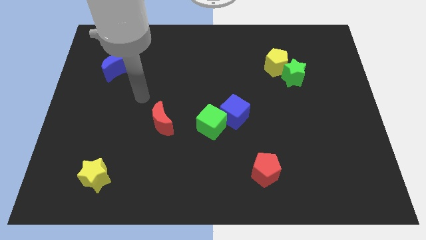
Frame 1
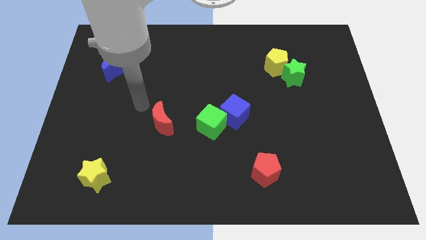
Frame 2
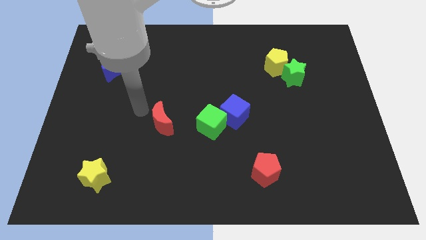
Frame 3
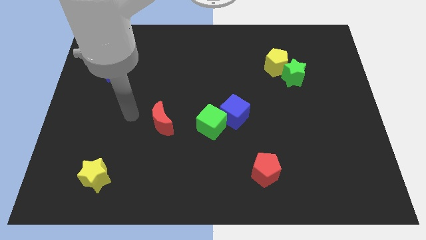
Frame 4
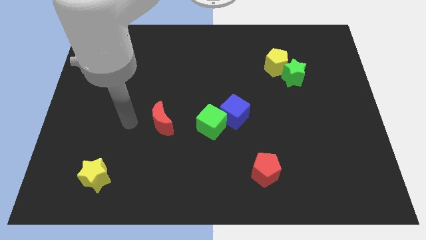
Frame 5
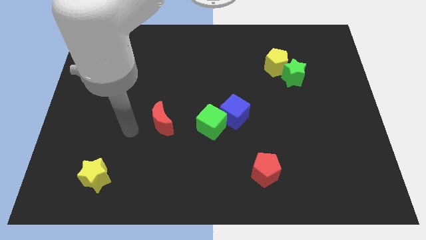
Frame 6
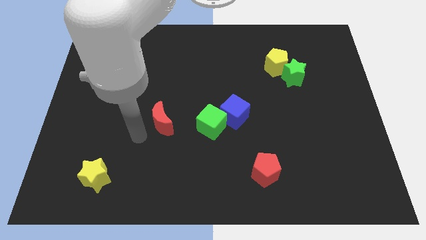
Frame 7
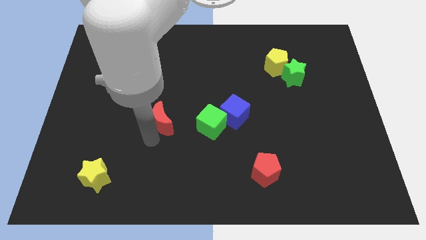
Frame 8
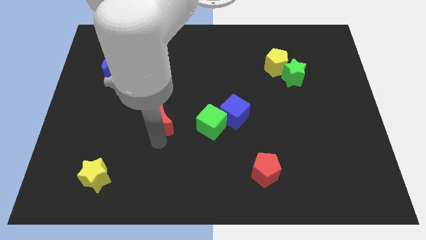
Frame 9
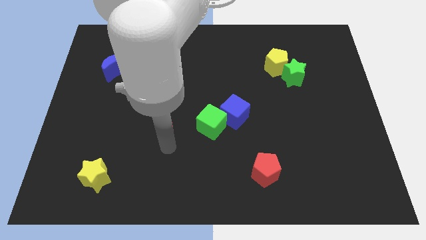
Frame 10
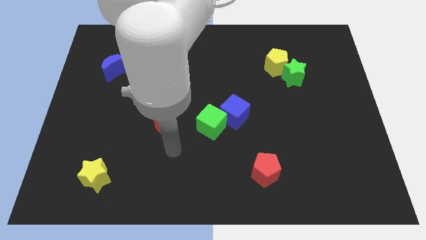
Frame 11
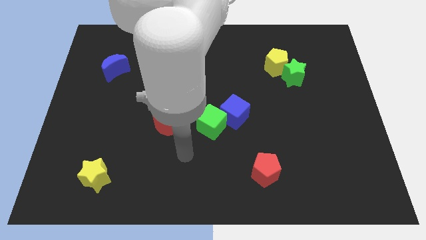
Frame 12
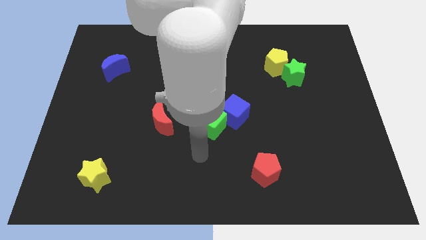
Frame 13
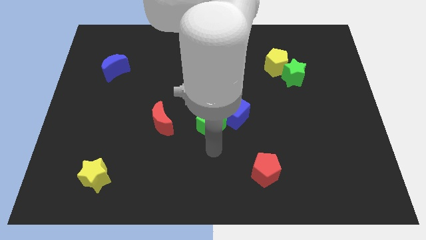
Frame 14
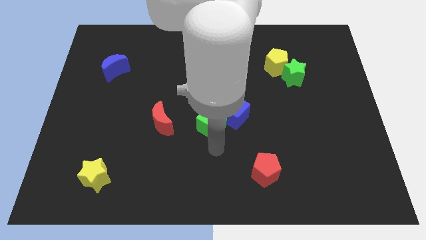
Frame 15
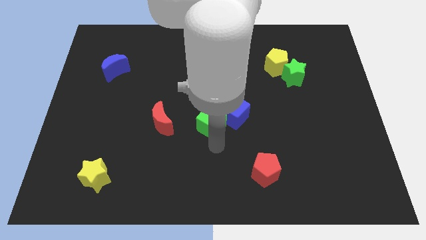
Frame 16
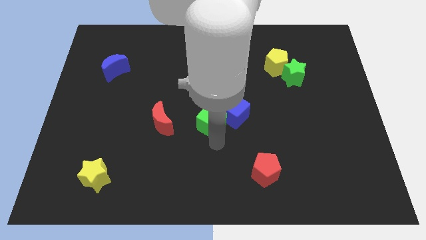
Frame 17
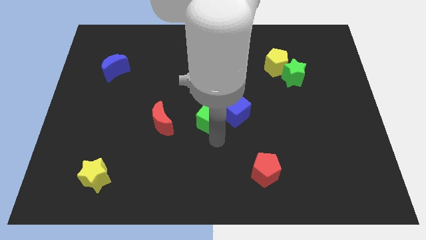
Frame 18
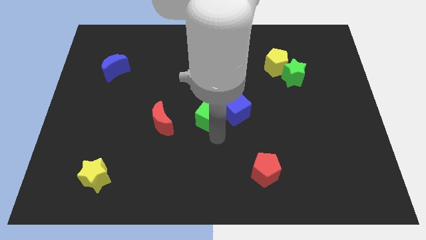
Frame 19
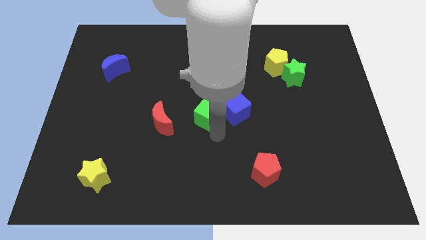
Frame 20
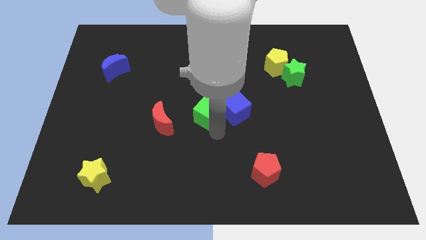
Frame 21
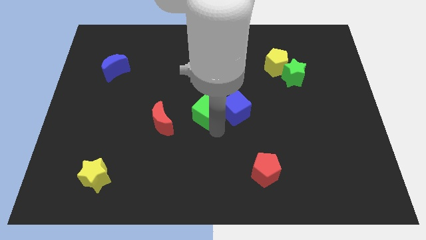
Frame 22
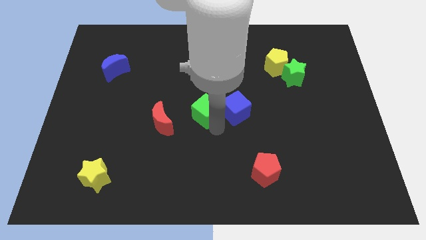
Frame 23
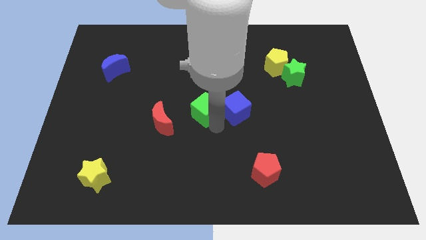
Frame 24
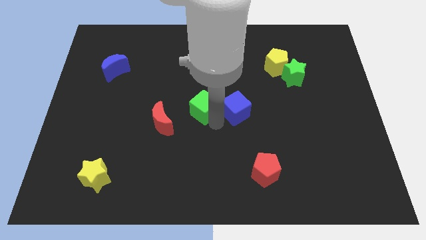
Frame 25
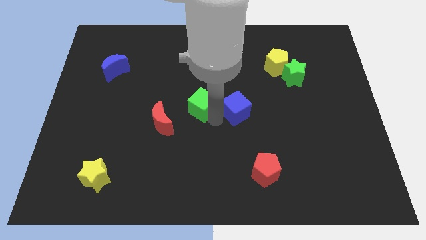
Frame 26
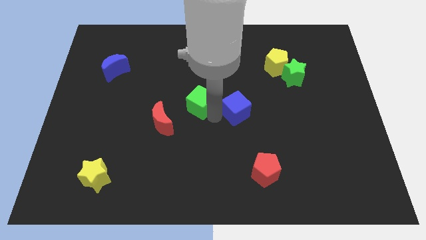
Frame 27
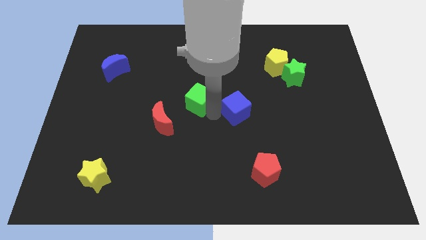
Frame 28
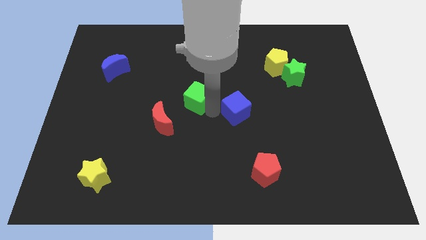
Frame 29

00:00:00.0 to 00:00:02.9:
slide the green cube upwards somewhat

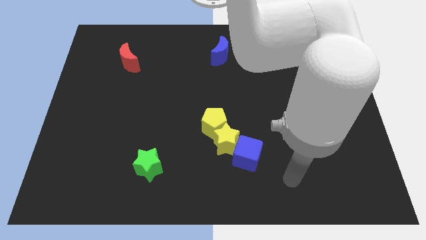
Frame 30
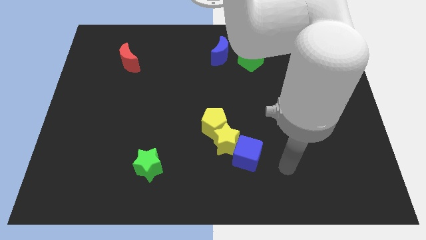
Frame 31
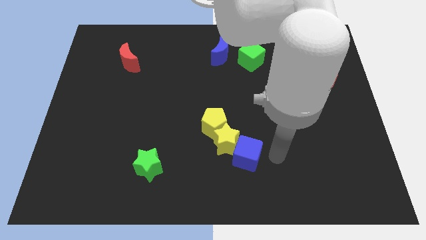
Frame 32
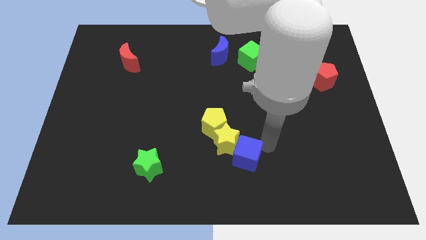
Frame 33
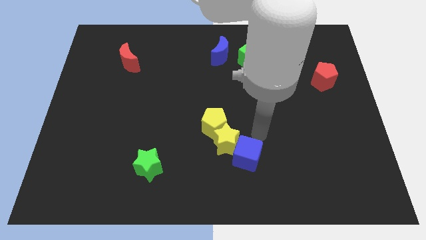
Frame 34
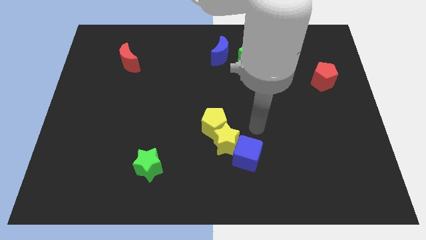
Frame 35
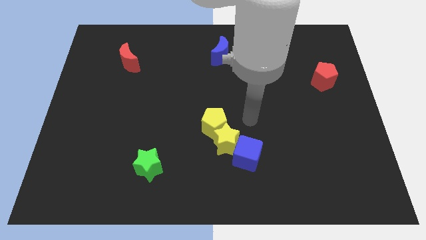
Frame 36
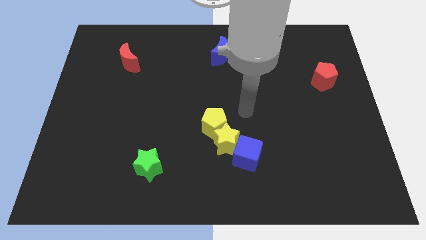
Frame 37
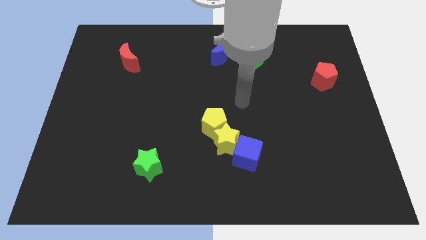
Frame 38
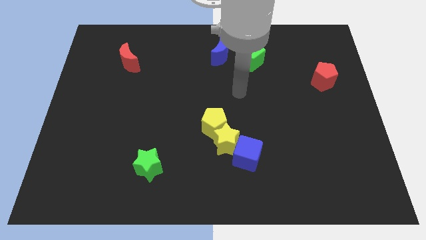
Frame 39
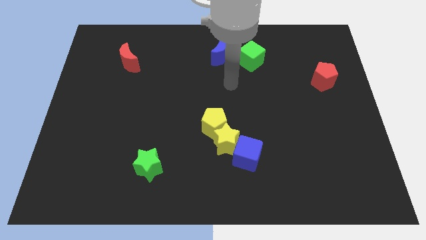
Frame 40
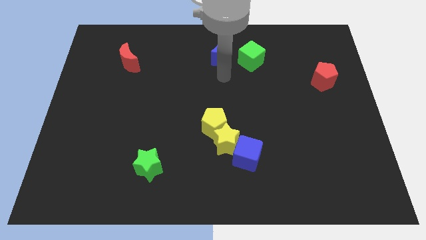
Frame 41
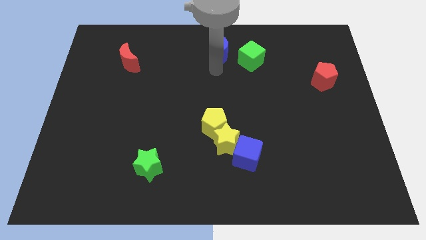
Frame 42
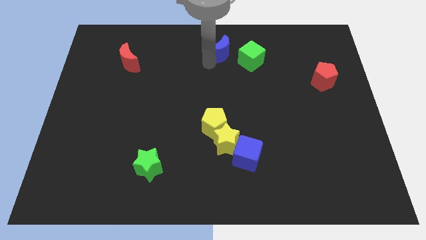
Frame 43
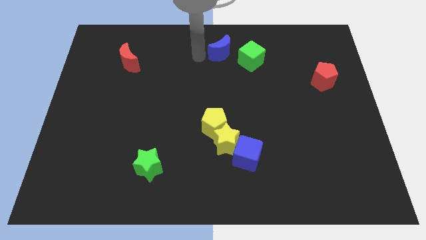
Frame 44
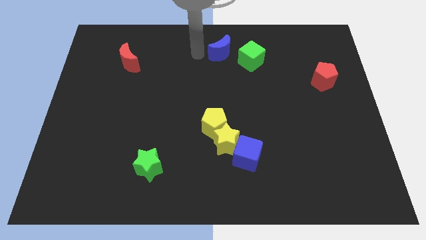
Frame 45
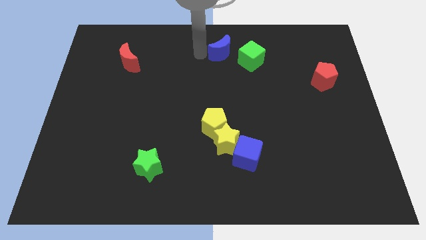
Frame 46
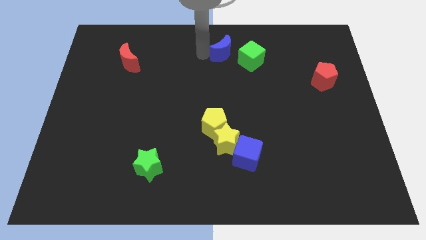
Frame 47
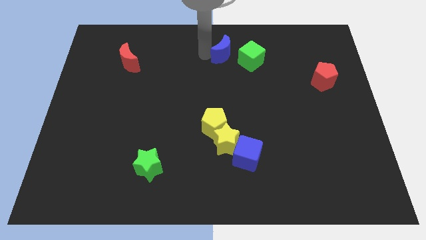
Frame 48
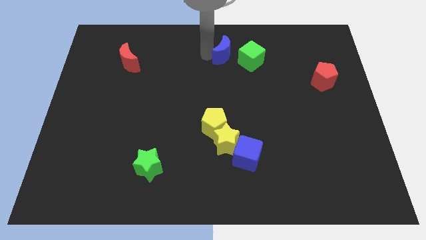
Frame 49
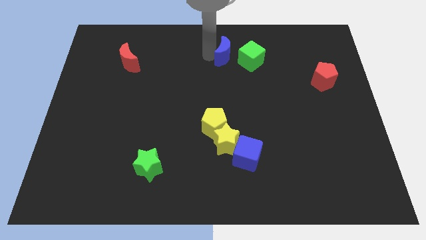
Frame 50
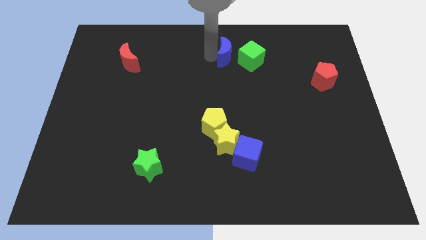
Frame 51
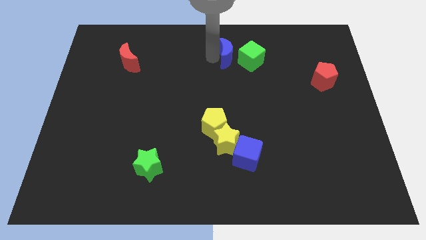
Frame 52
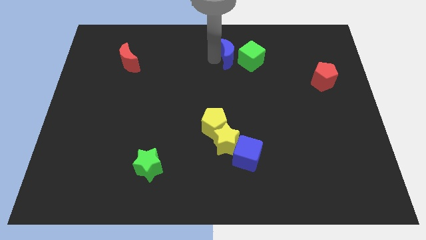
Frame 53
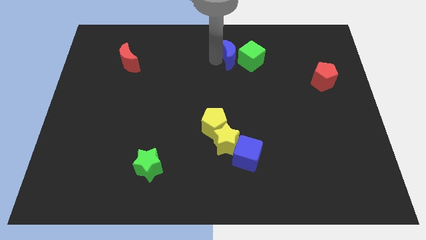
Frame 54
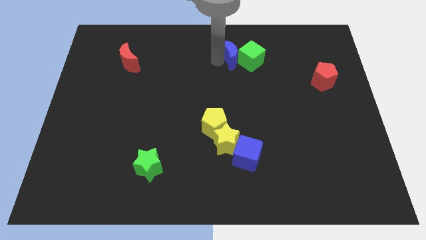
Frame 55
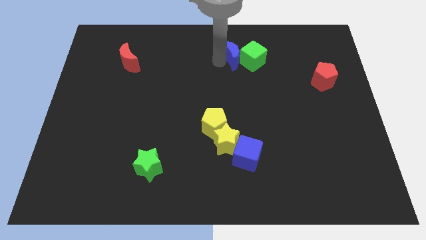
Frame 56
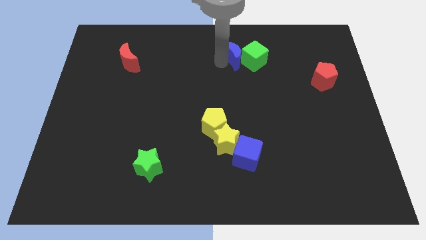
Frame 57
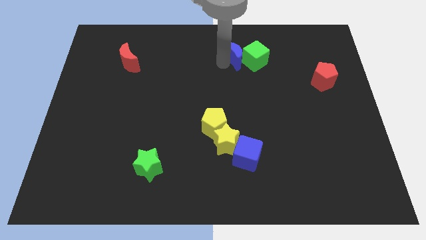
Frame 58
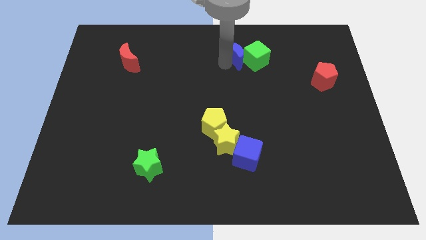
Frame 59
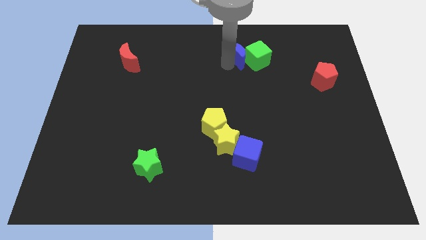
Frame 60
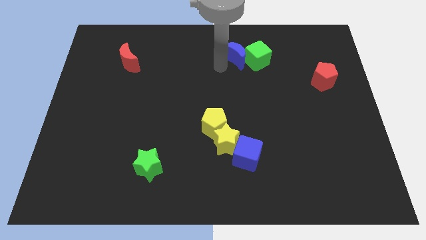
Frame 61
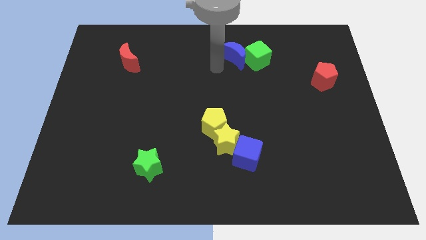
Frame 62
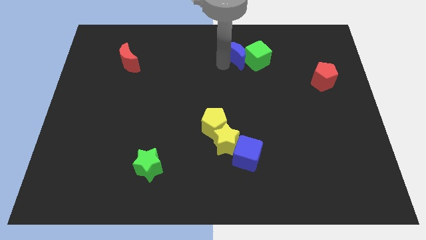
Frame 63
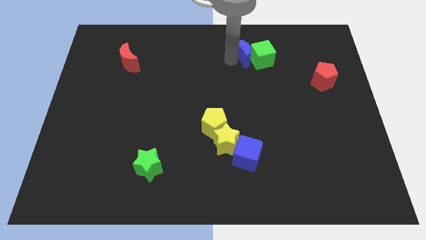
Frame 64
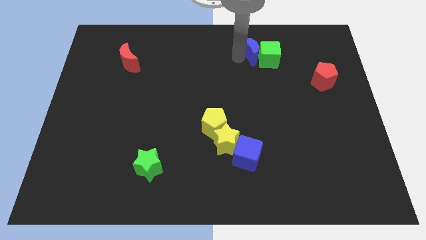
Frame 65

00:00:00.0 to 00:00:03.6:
slightly push the blue moon to the right

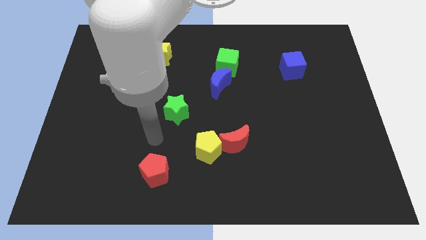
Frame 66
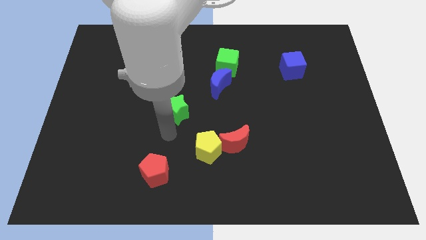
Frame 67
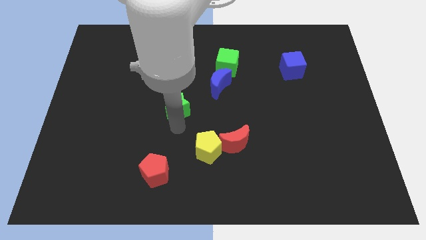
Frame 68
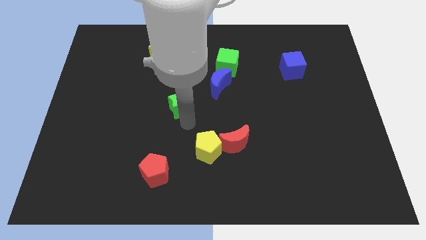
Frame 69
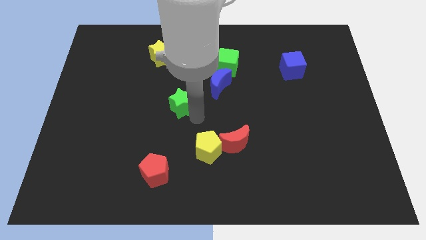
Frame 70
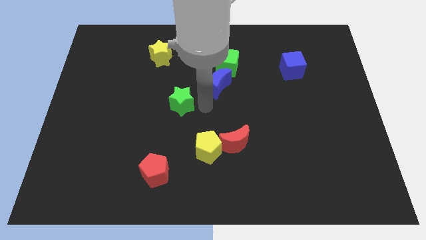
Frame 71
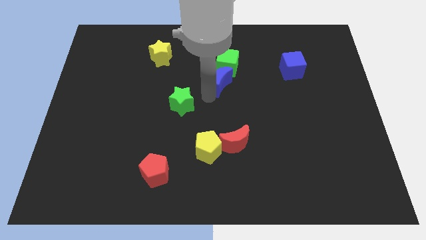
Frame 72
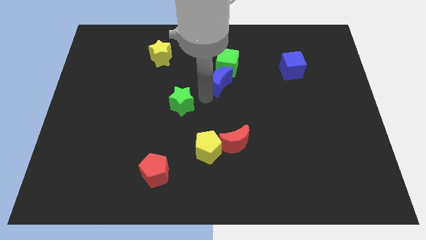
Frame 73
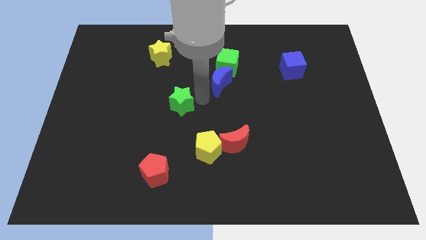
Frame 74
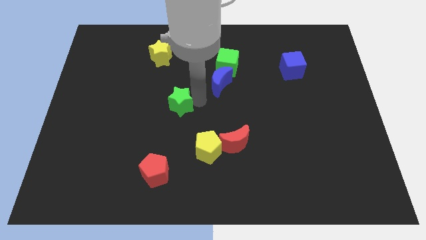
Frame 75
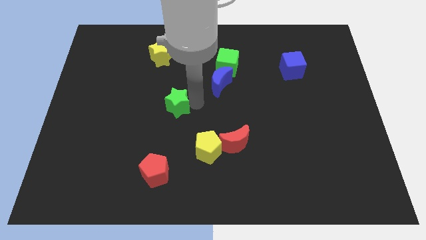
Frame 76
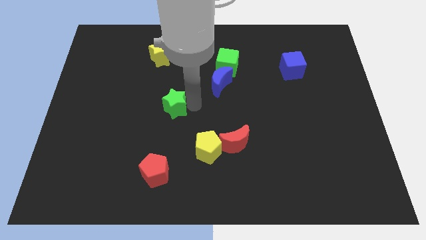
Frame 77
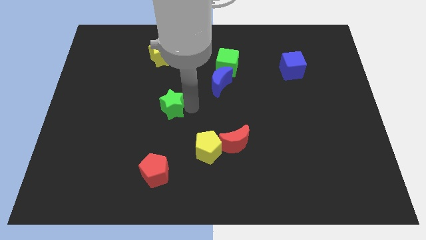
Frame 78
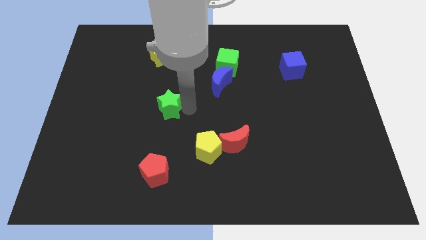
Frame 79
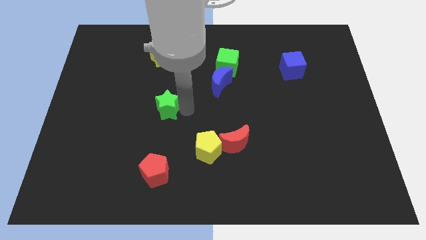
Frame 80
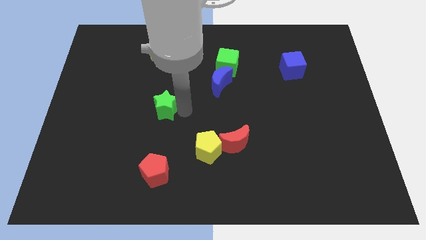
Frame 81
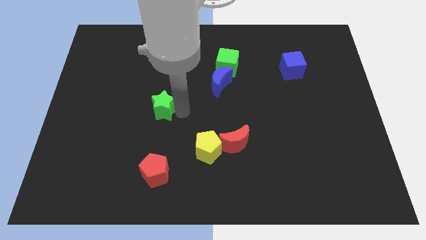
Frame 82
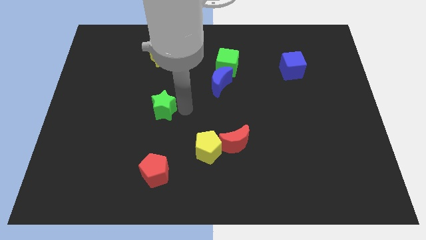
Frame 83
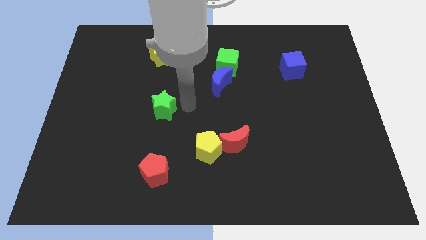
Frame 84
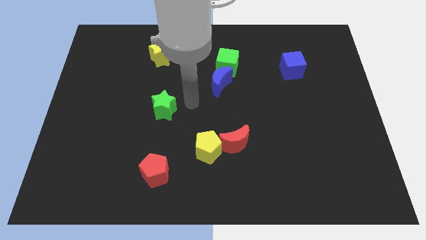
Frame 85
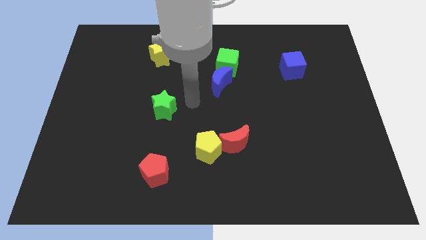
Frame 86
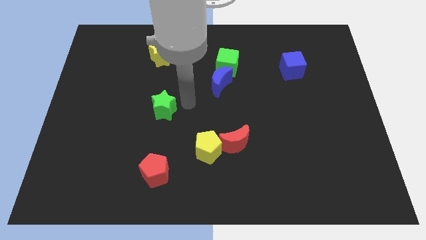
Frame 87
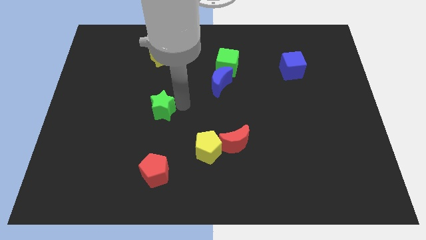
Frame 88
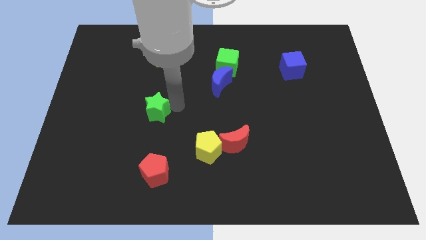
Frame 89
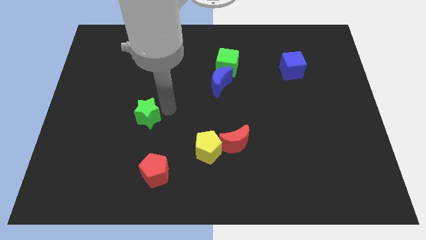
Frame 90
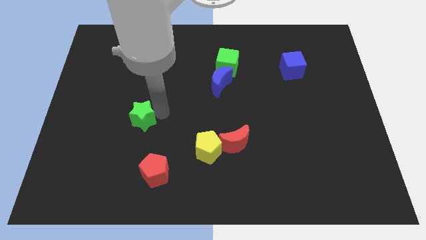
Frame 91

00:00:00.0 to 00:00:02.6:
push the green star left somewhat
